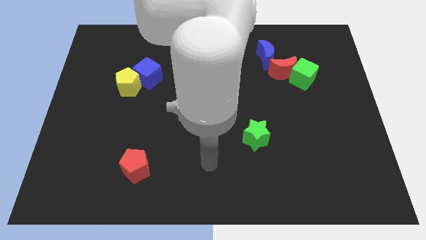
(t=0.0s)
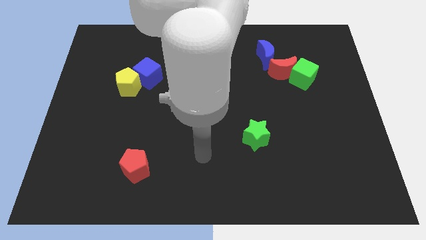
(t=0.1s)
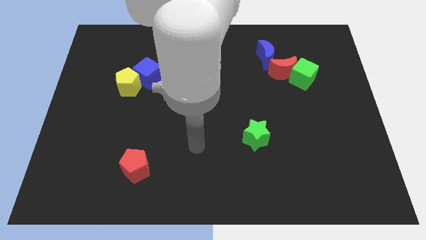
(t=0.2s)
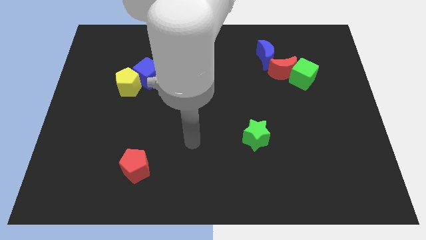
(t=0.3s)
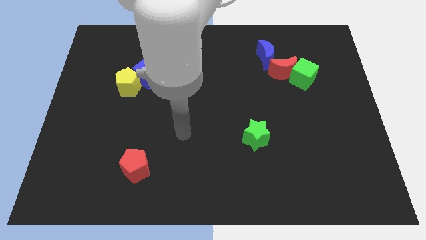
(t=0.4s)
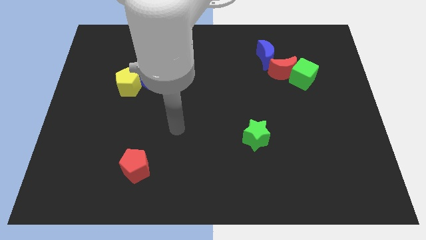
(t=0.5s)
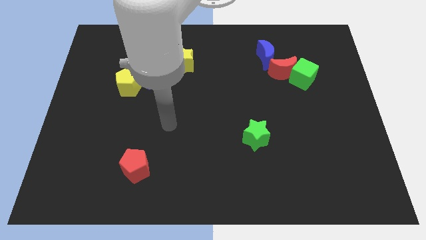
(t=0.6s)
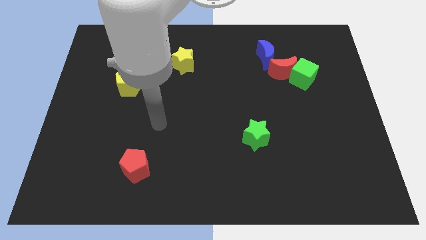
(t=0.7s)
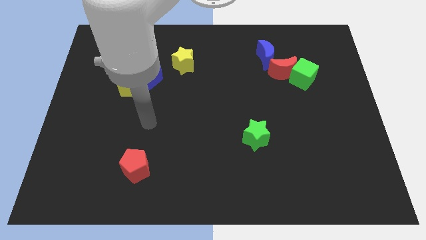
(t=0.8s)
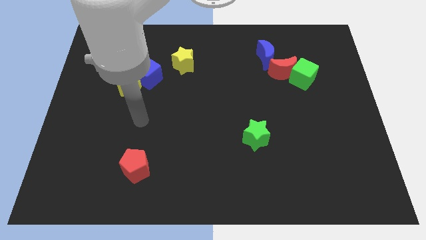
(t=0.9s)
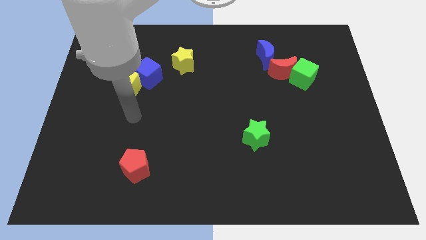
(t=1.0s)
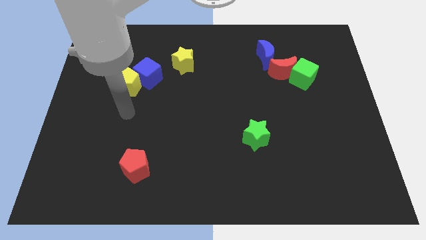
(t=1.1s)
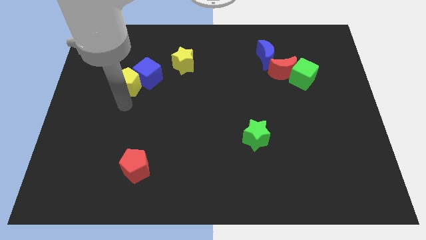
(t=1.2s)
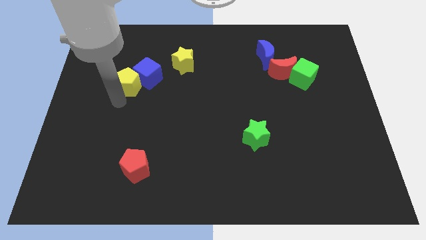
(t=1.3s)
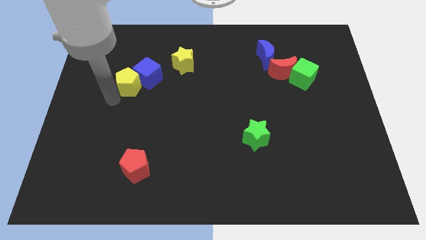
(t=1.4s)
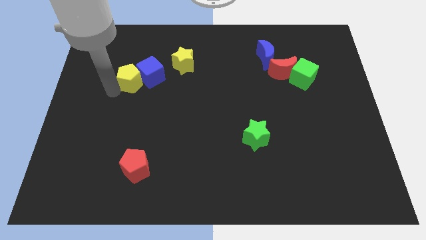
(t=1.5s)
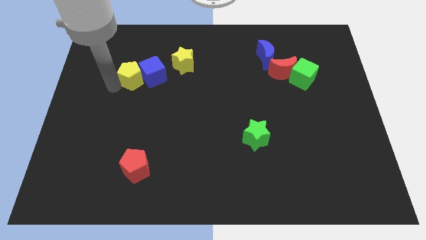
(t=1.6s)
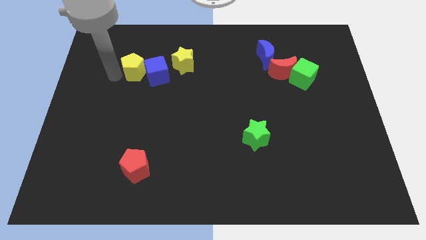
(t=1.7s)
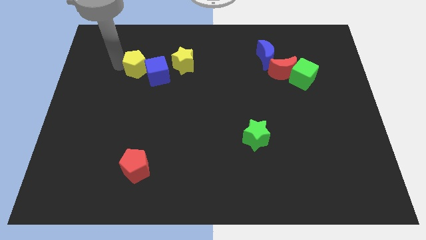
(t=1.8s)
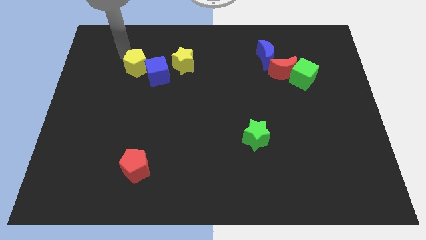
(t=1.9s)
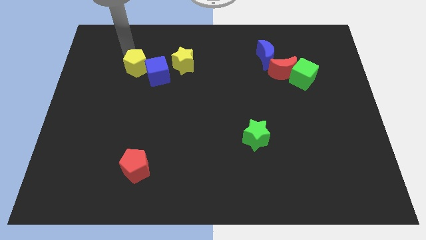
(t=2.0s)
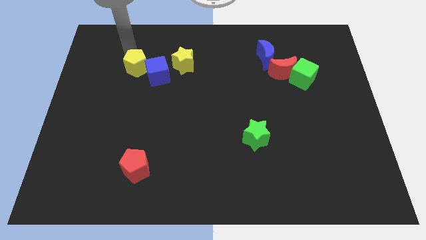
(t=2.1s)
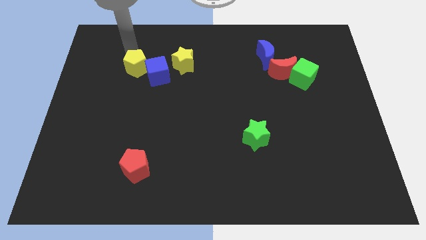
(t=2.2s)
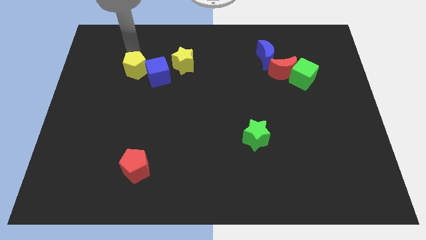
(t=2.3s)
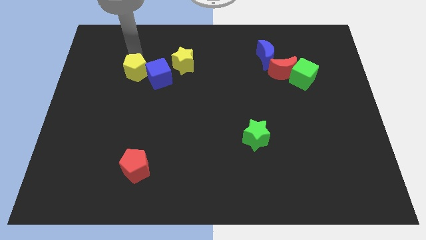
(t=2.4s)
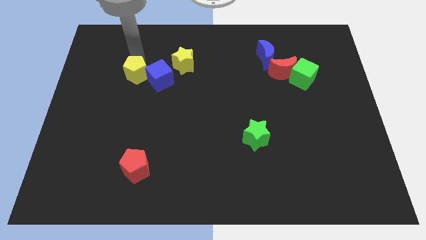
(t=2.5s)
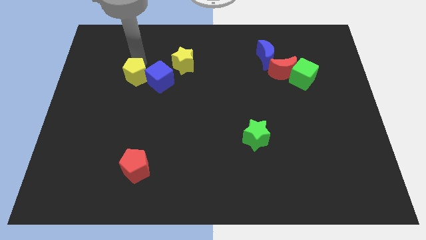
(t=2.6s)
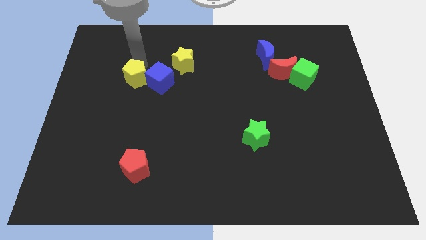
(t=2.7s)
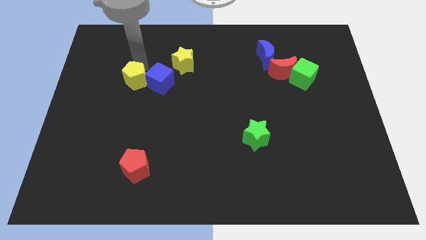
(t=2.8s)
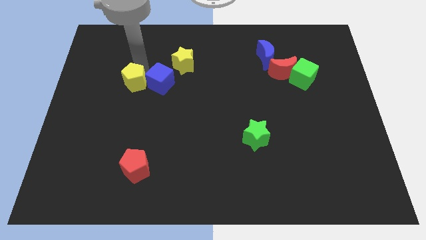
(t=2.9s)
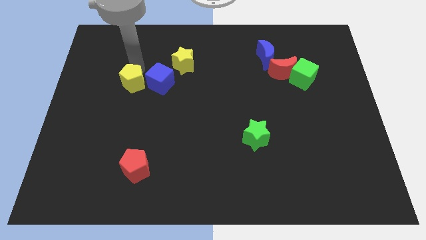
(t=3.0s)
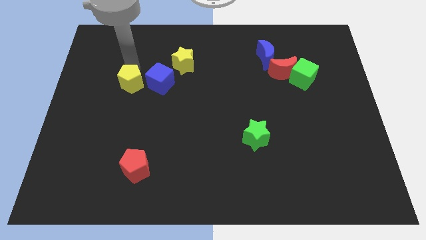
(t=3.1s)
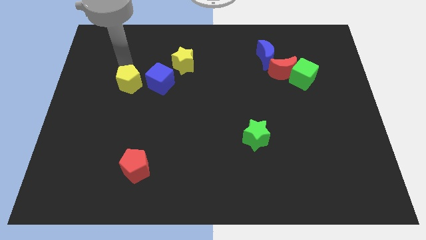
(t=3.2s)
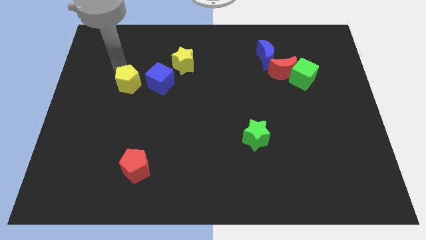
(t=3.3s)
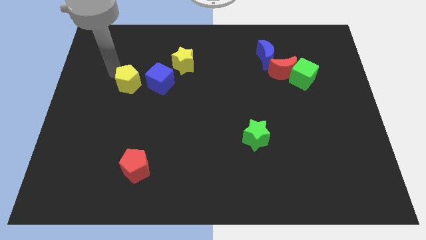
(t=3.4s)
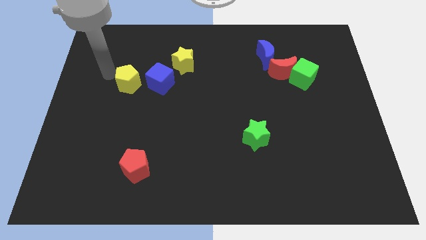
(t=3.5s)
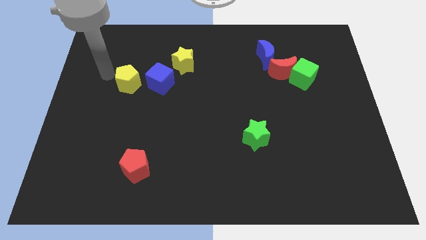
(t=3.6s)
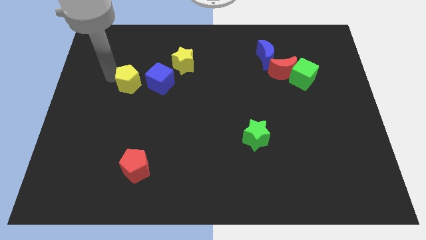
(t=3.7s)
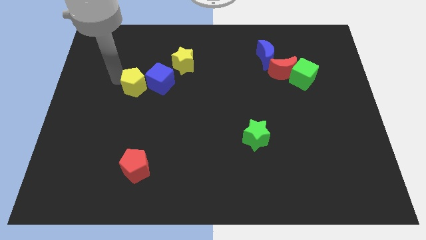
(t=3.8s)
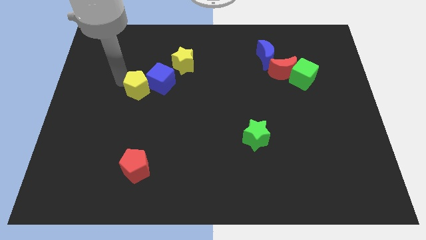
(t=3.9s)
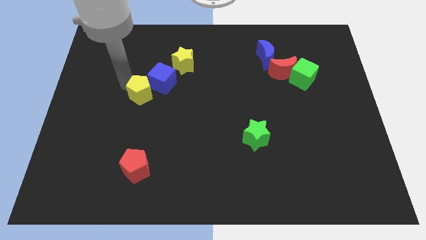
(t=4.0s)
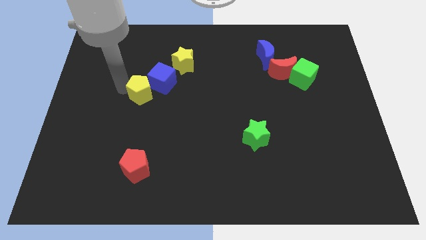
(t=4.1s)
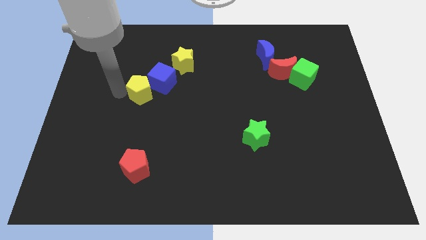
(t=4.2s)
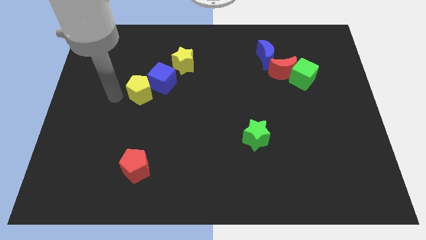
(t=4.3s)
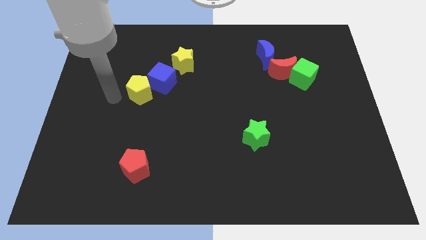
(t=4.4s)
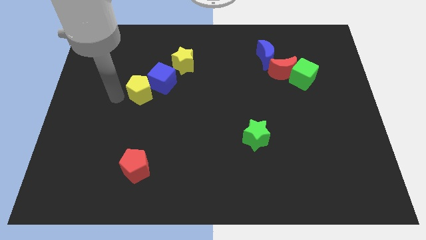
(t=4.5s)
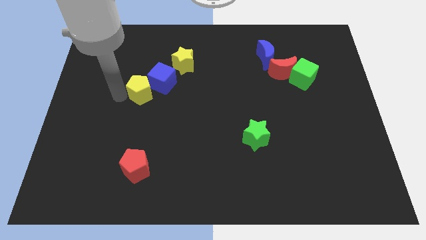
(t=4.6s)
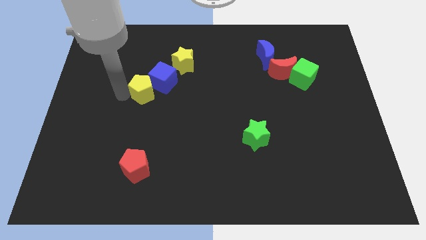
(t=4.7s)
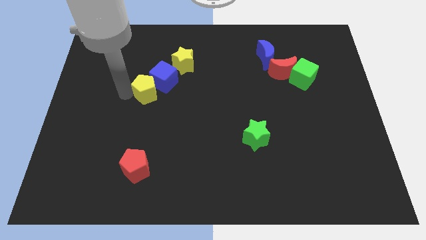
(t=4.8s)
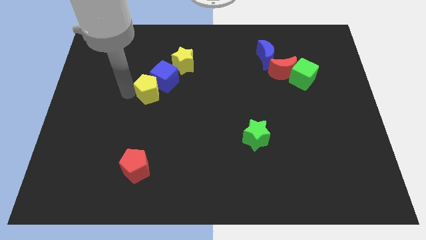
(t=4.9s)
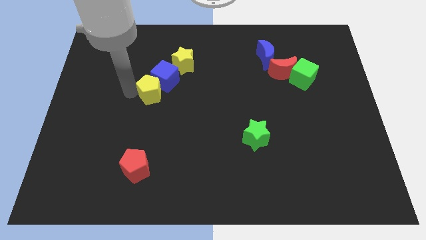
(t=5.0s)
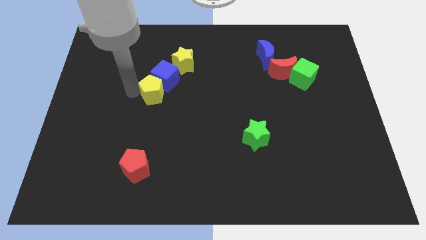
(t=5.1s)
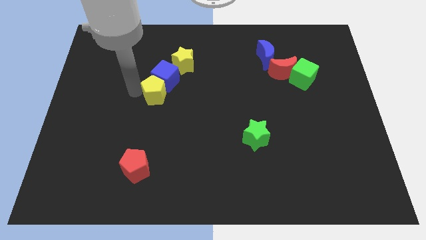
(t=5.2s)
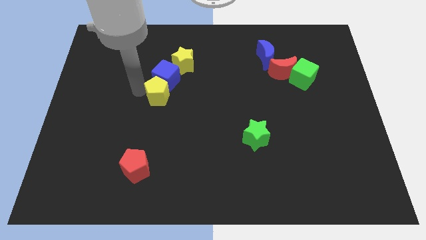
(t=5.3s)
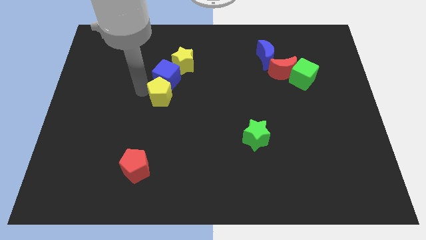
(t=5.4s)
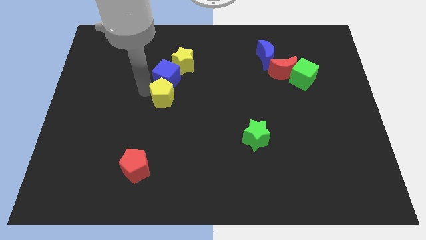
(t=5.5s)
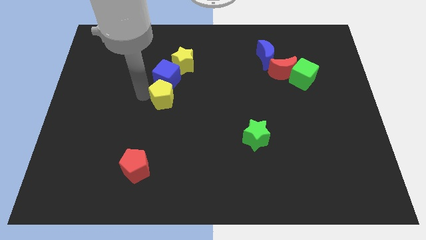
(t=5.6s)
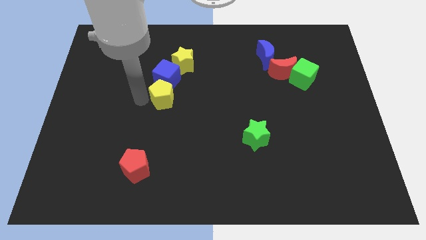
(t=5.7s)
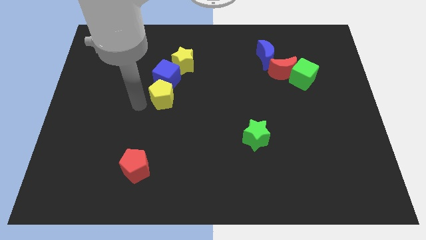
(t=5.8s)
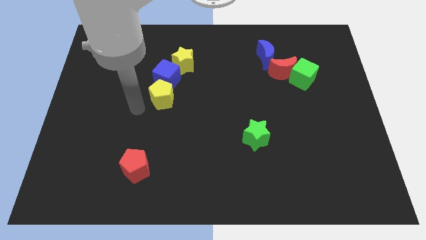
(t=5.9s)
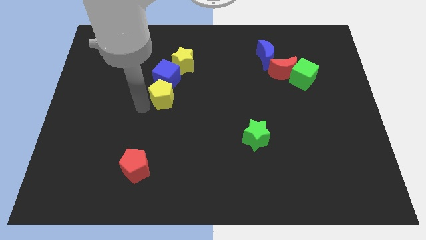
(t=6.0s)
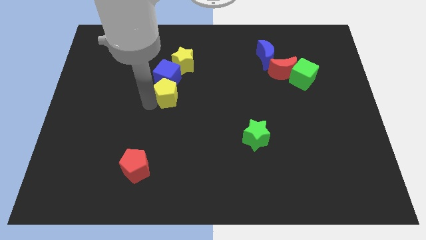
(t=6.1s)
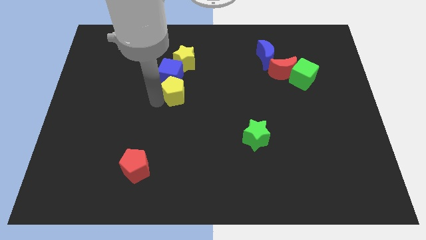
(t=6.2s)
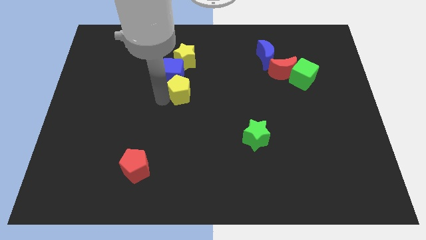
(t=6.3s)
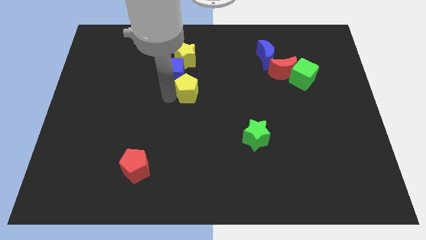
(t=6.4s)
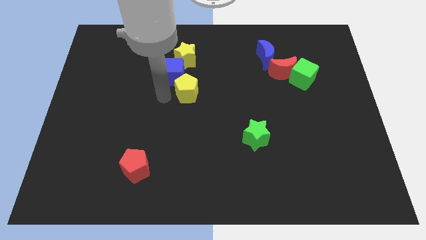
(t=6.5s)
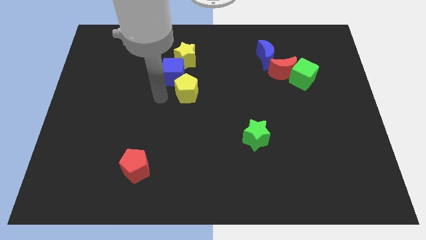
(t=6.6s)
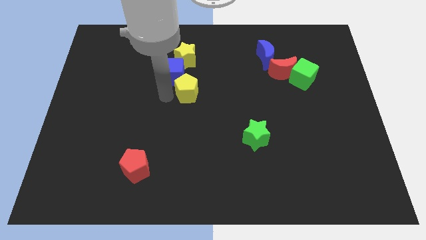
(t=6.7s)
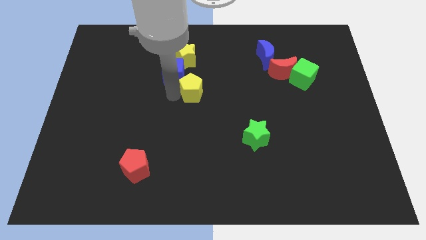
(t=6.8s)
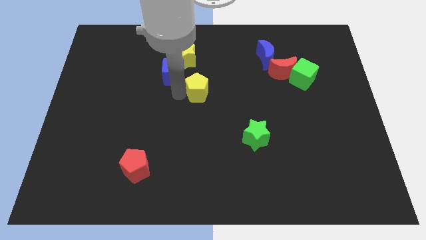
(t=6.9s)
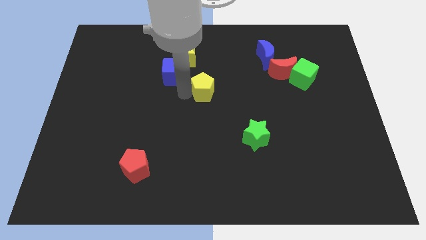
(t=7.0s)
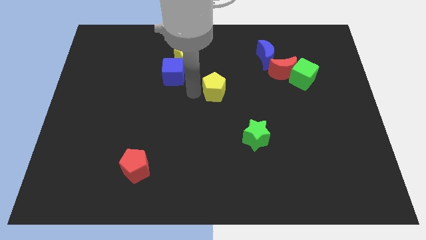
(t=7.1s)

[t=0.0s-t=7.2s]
push the yellow pentagon right

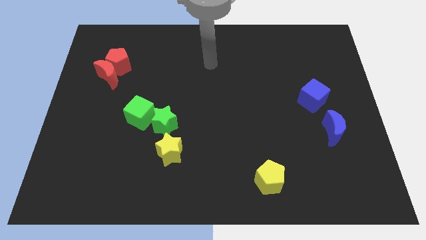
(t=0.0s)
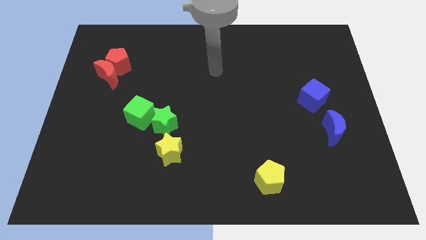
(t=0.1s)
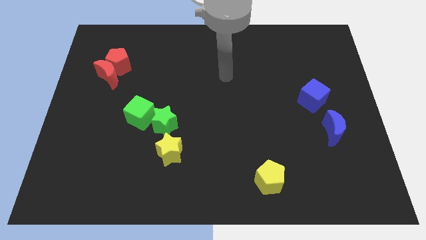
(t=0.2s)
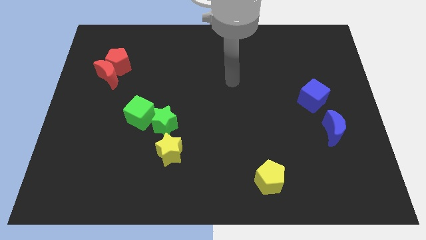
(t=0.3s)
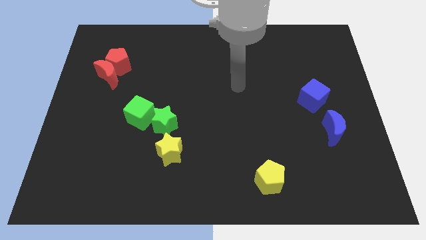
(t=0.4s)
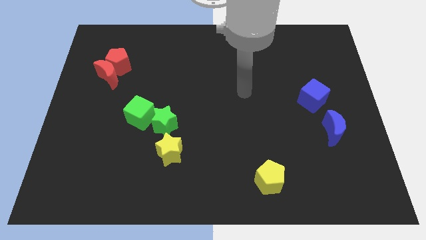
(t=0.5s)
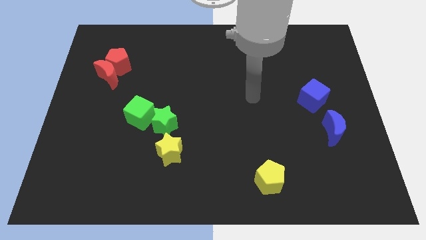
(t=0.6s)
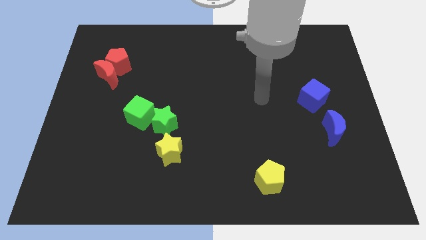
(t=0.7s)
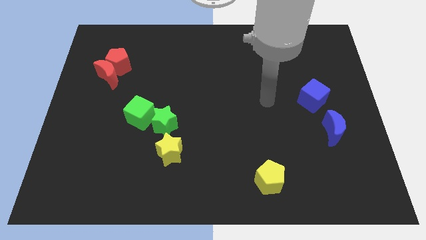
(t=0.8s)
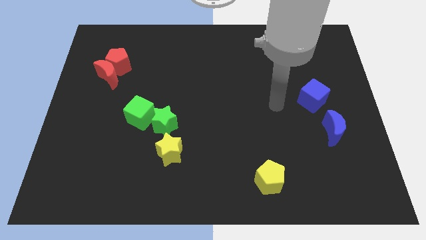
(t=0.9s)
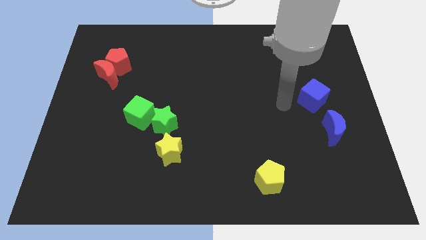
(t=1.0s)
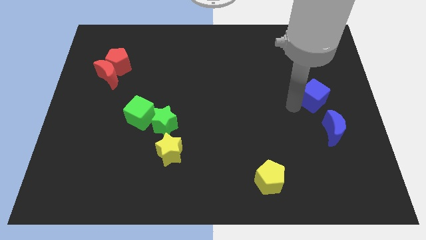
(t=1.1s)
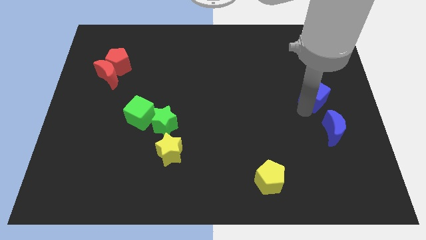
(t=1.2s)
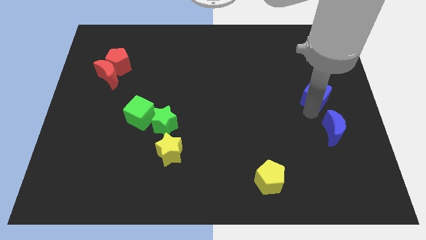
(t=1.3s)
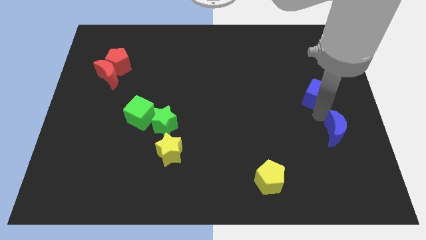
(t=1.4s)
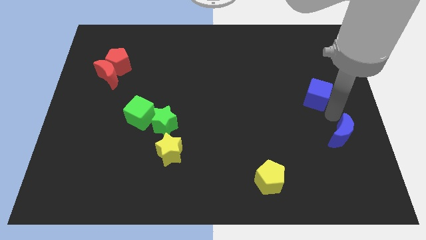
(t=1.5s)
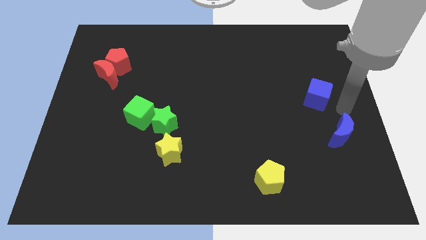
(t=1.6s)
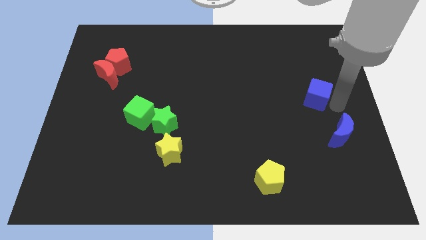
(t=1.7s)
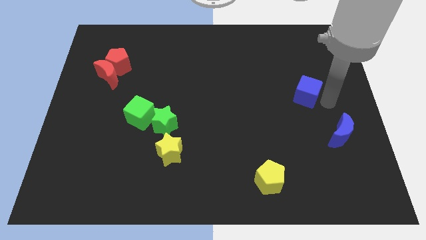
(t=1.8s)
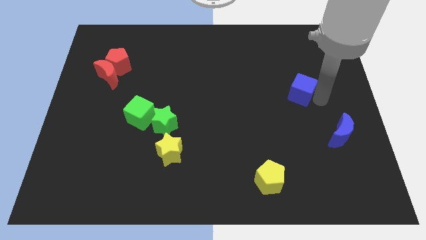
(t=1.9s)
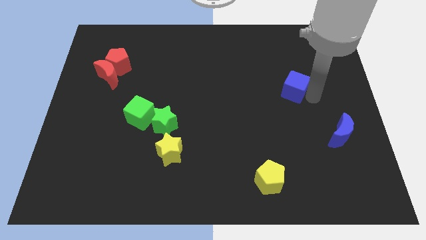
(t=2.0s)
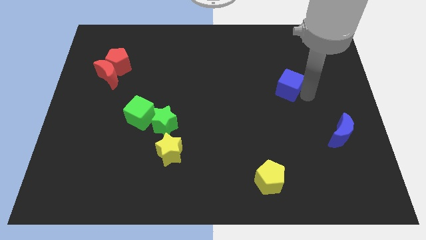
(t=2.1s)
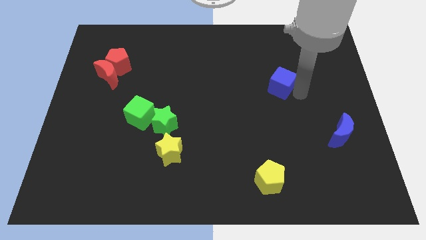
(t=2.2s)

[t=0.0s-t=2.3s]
slightly slide the blue cube up and to the left
